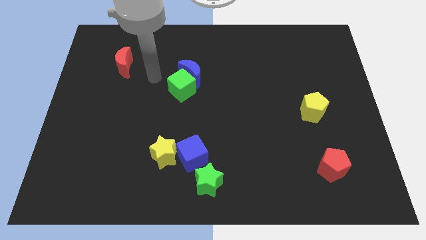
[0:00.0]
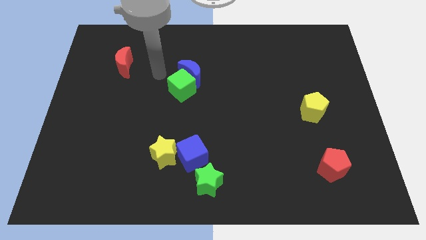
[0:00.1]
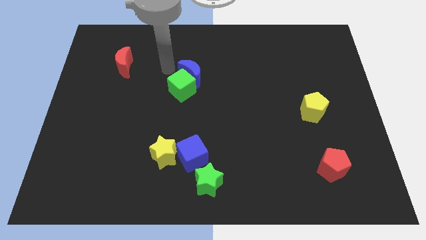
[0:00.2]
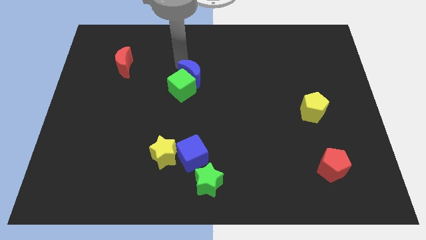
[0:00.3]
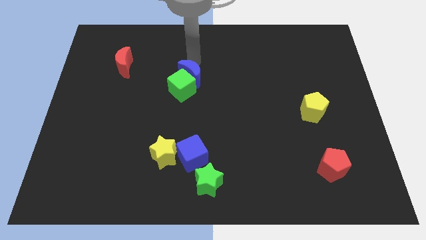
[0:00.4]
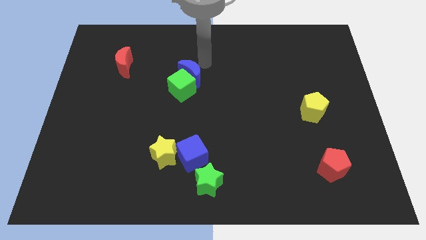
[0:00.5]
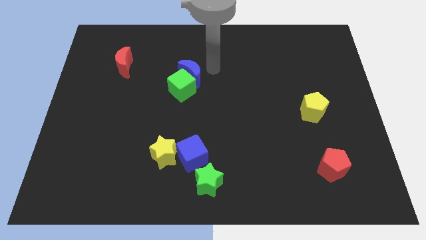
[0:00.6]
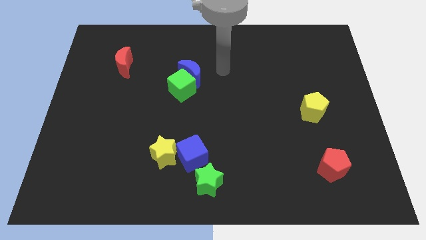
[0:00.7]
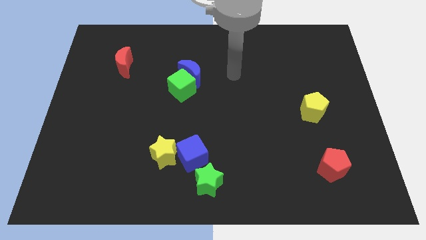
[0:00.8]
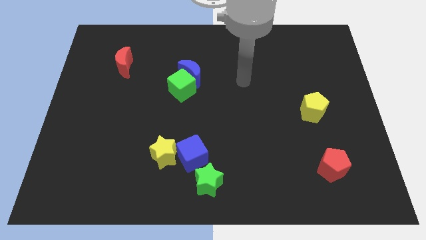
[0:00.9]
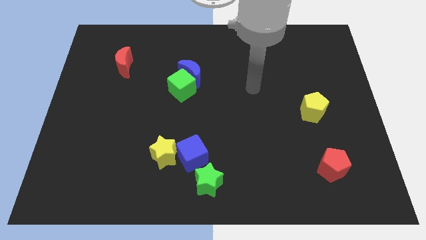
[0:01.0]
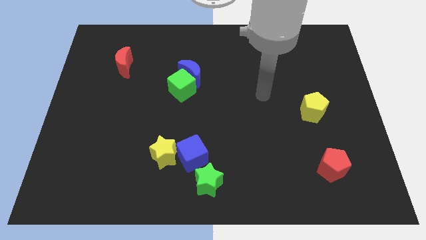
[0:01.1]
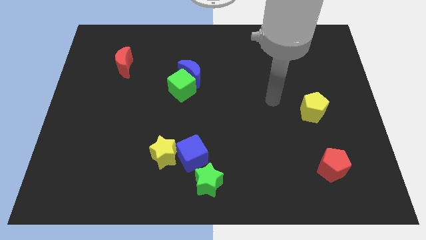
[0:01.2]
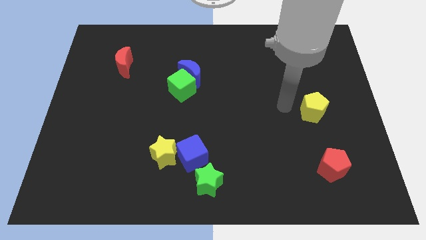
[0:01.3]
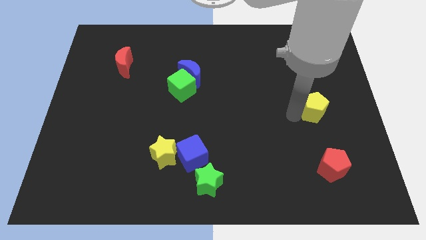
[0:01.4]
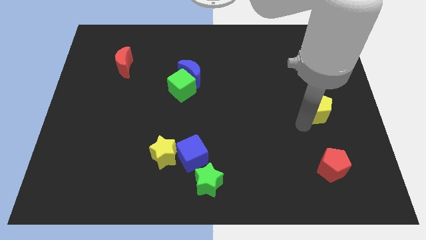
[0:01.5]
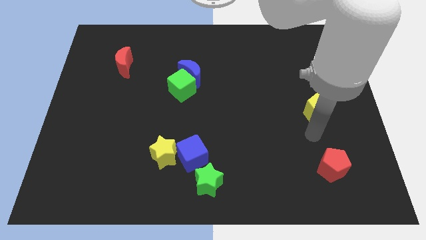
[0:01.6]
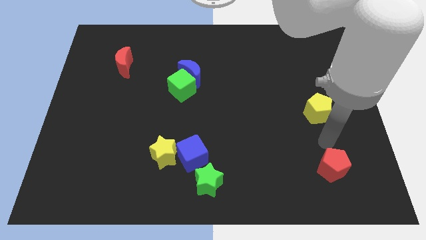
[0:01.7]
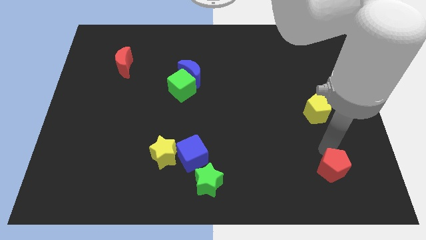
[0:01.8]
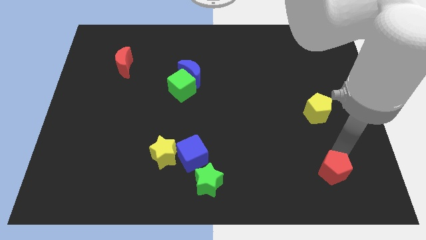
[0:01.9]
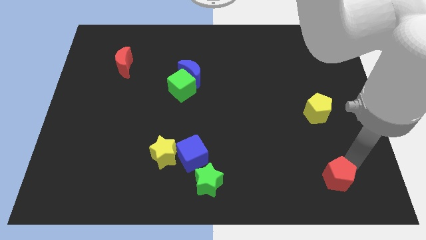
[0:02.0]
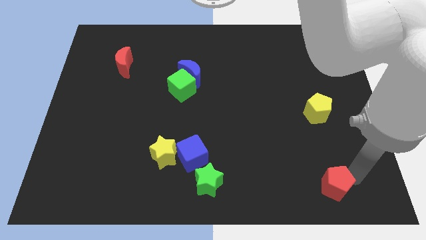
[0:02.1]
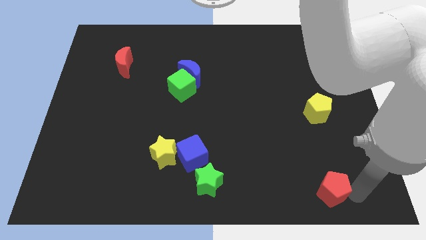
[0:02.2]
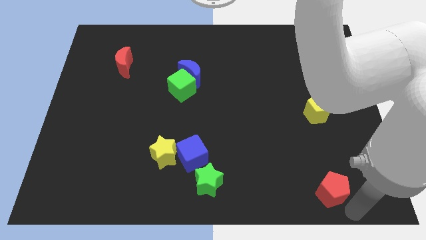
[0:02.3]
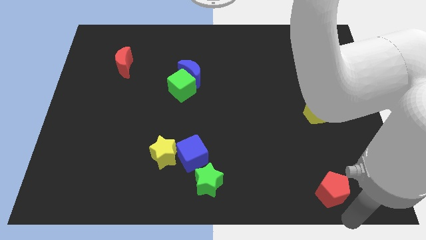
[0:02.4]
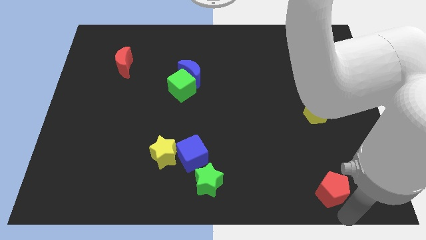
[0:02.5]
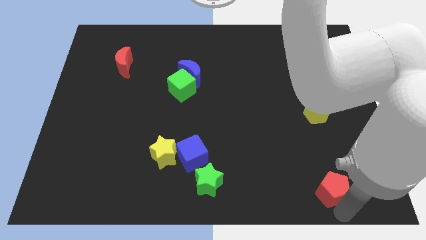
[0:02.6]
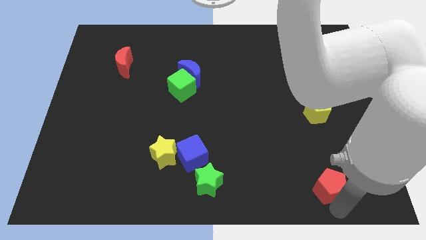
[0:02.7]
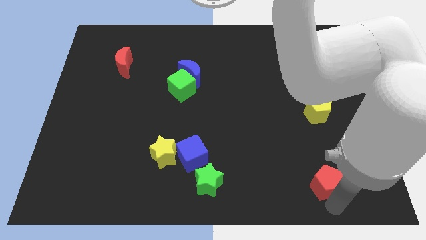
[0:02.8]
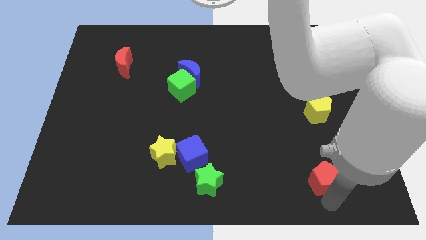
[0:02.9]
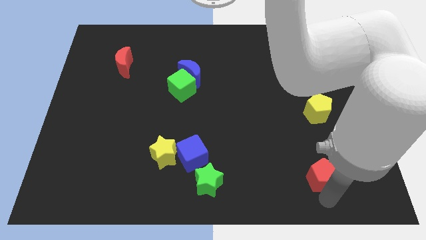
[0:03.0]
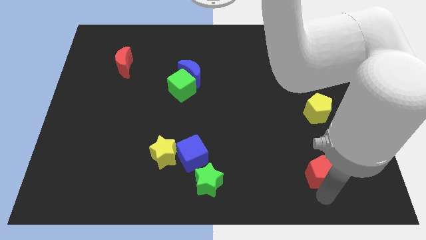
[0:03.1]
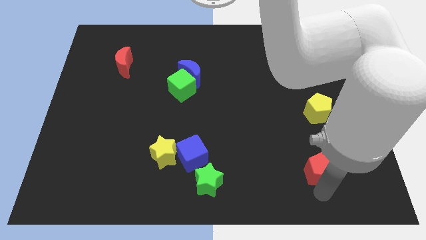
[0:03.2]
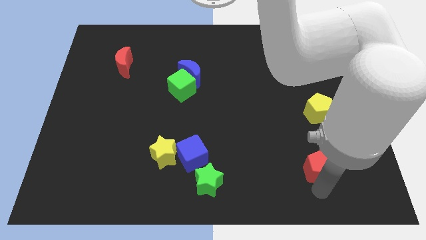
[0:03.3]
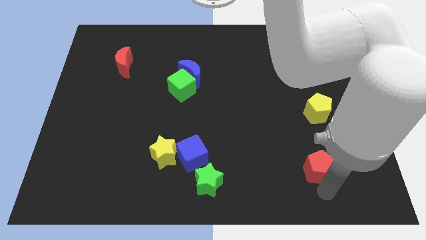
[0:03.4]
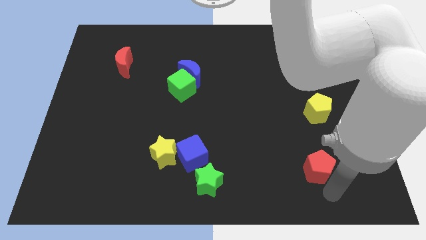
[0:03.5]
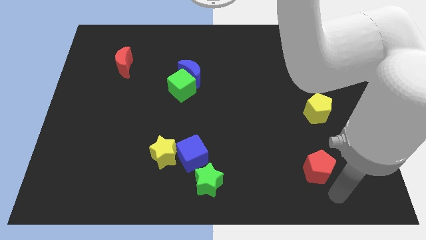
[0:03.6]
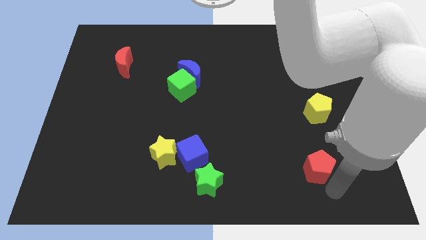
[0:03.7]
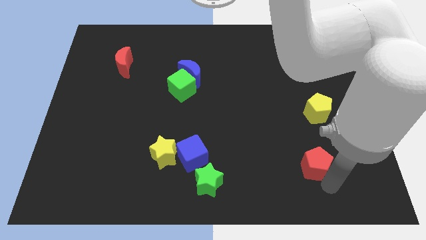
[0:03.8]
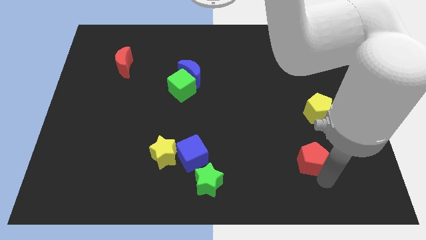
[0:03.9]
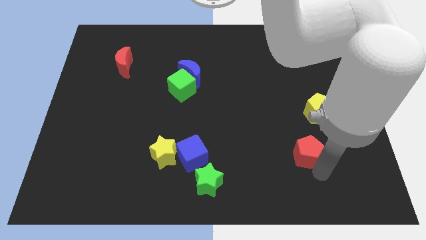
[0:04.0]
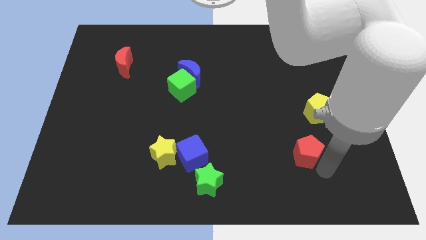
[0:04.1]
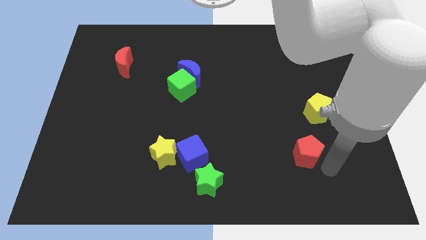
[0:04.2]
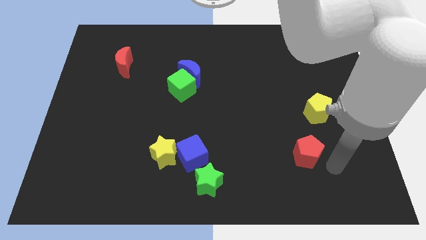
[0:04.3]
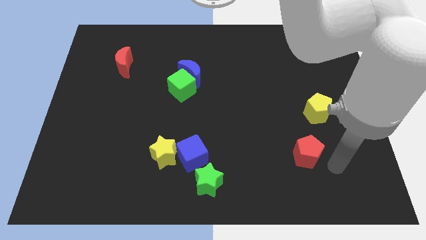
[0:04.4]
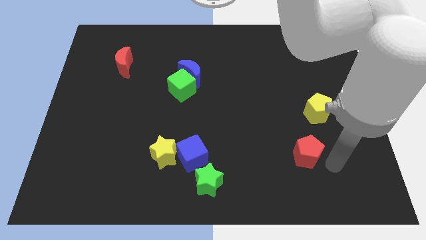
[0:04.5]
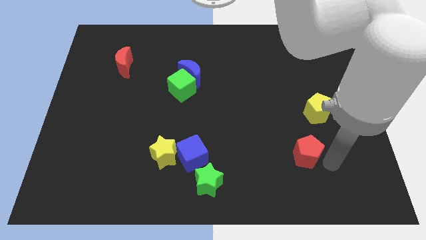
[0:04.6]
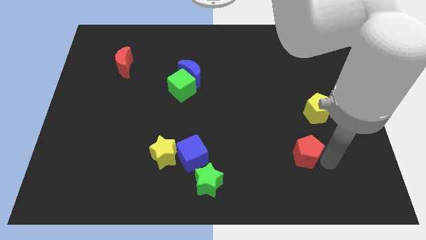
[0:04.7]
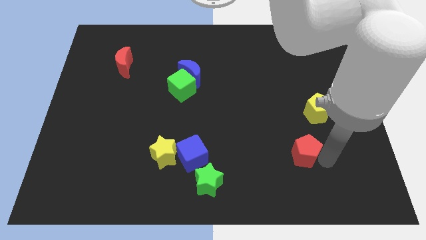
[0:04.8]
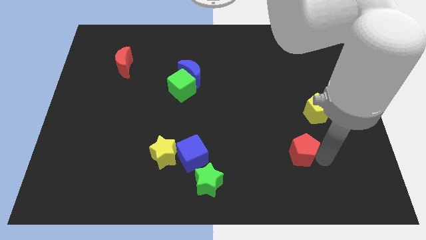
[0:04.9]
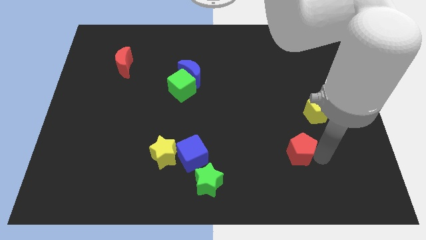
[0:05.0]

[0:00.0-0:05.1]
move the red pentagon somewhat diagonally up and left

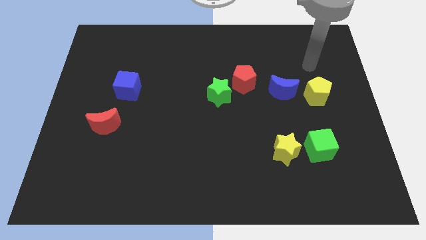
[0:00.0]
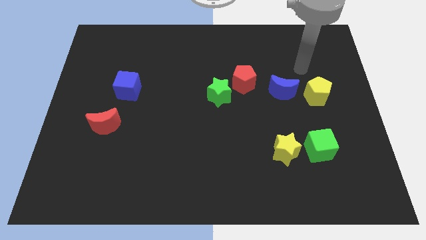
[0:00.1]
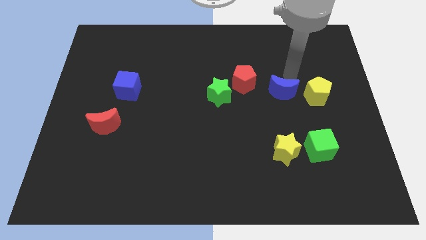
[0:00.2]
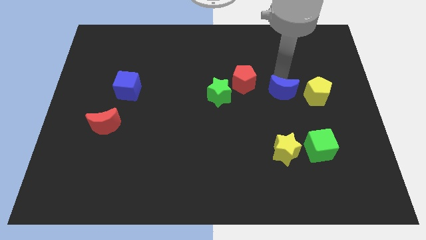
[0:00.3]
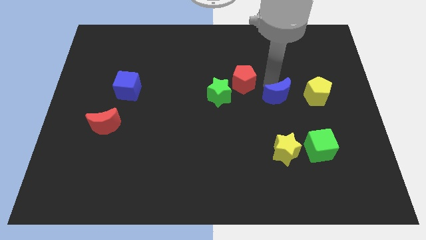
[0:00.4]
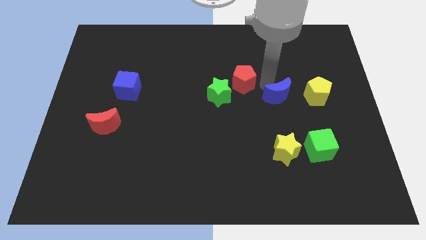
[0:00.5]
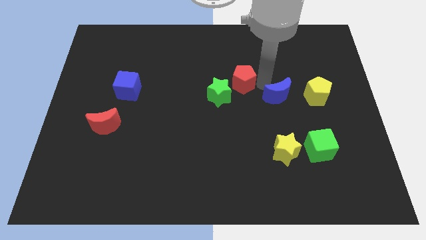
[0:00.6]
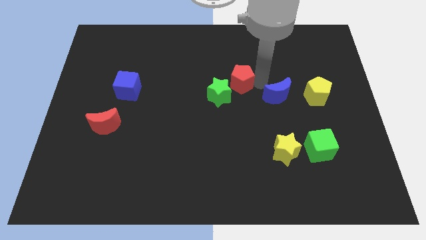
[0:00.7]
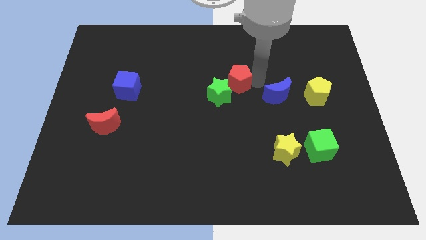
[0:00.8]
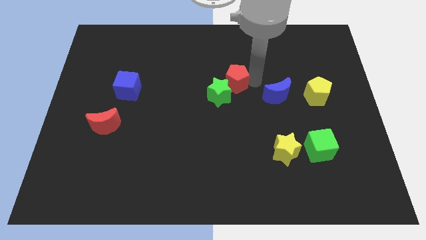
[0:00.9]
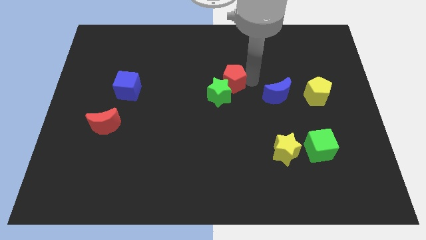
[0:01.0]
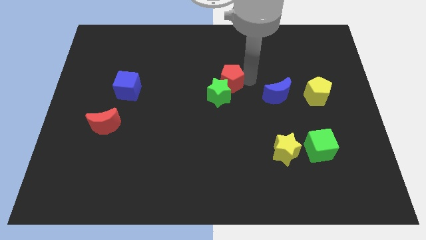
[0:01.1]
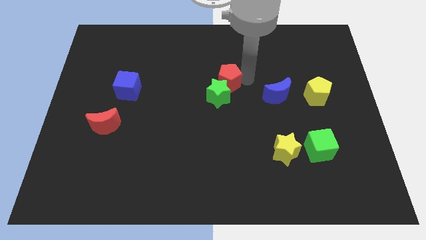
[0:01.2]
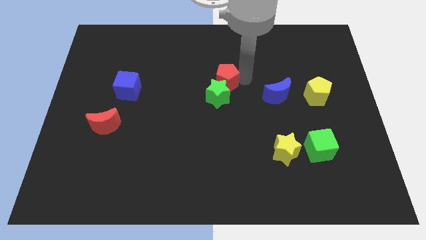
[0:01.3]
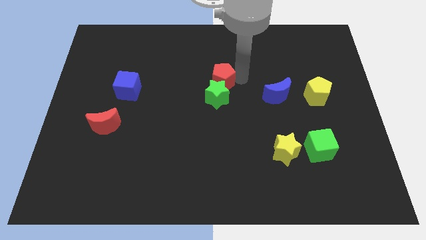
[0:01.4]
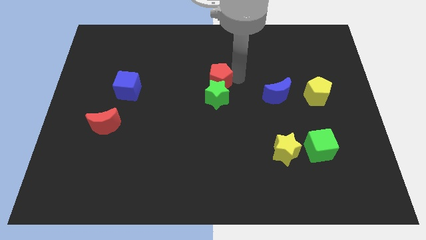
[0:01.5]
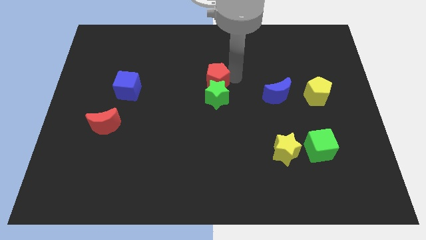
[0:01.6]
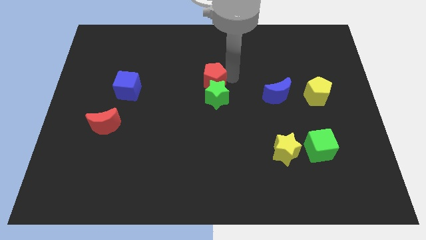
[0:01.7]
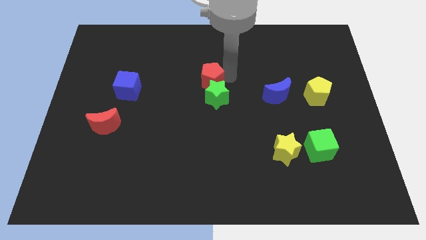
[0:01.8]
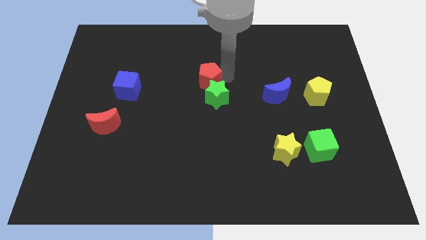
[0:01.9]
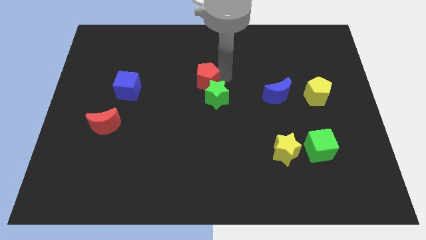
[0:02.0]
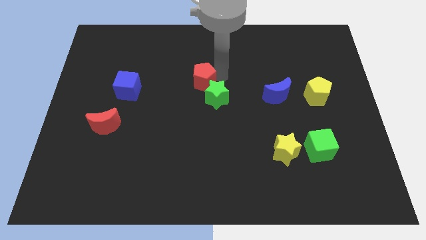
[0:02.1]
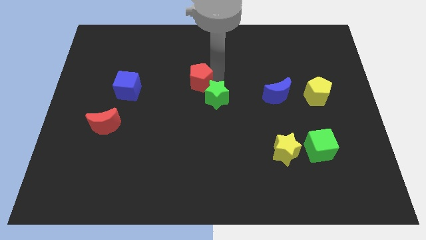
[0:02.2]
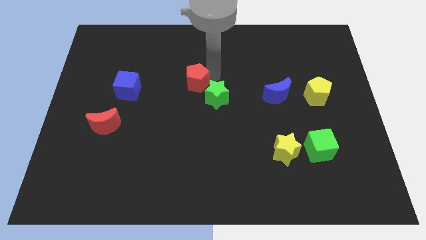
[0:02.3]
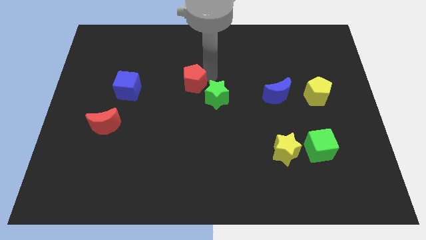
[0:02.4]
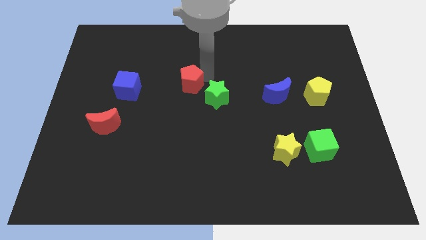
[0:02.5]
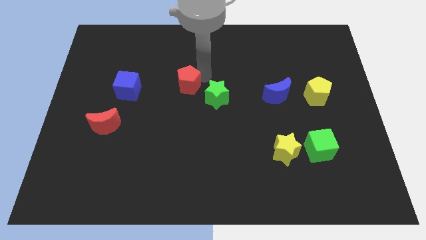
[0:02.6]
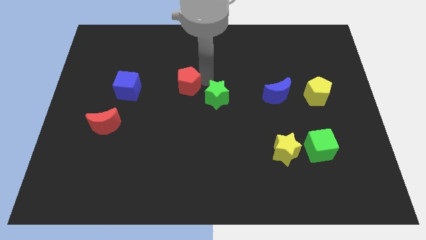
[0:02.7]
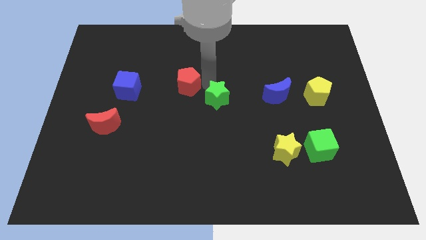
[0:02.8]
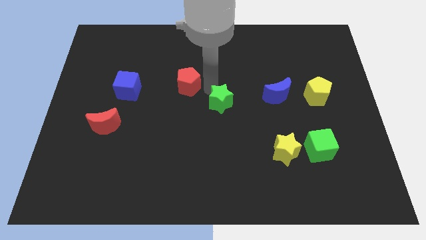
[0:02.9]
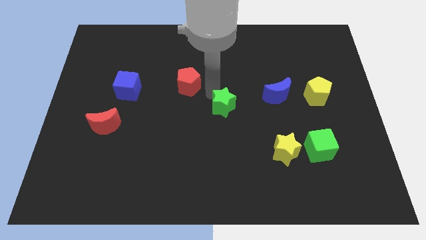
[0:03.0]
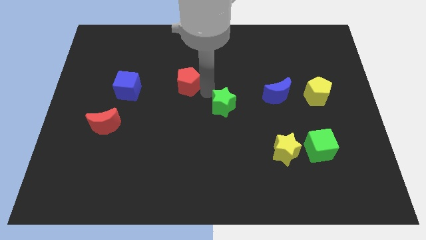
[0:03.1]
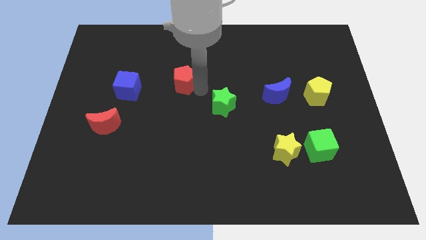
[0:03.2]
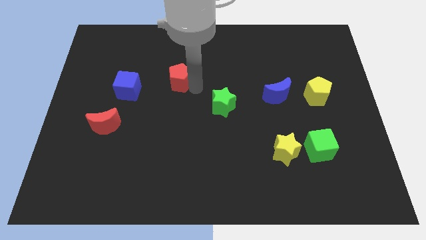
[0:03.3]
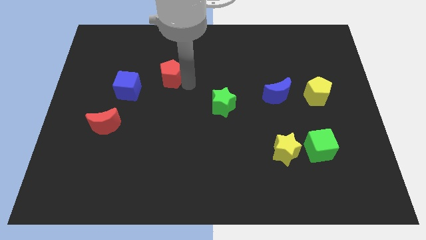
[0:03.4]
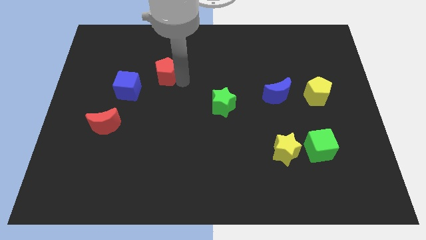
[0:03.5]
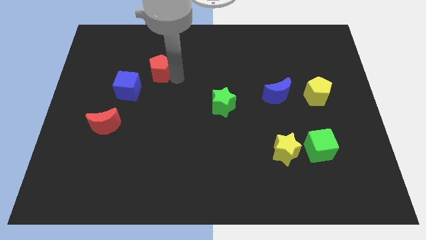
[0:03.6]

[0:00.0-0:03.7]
push the red pentagon to the left
